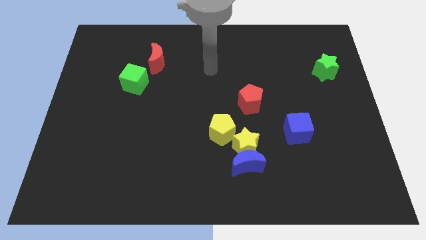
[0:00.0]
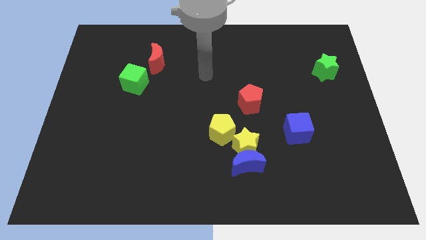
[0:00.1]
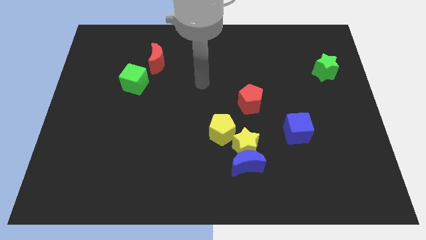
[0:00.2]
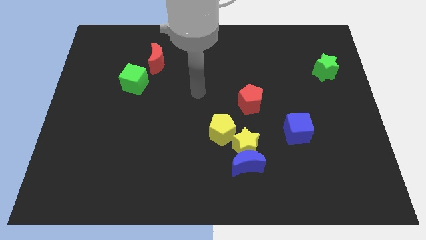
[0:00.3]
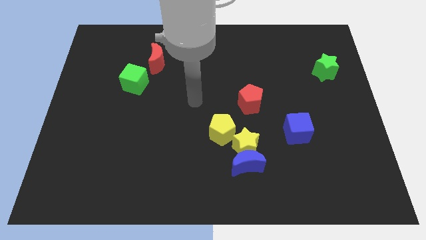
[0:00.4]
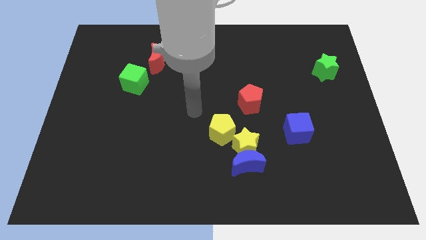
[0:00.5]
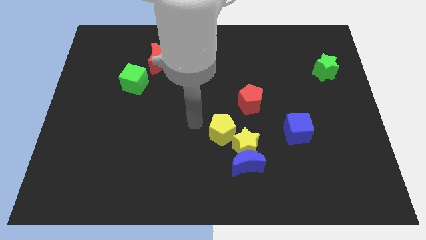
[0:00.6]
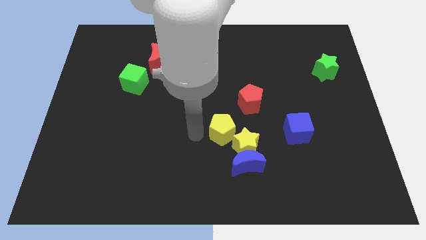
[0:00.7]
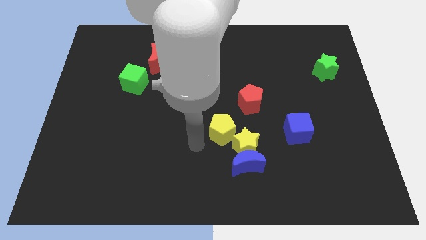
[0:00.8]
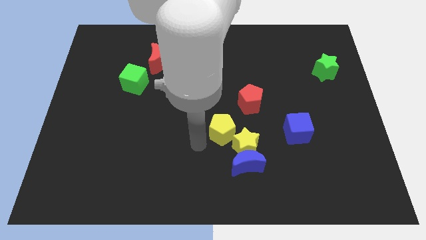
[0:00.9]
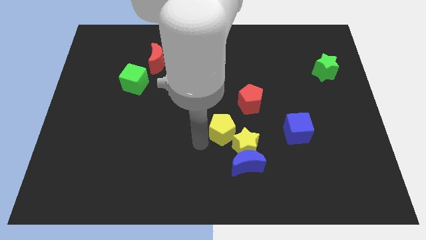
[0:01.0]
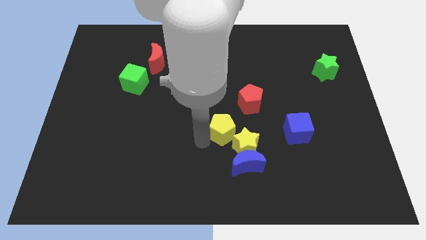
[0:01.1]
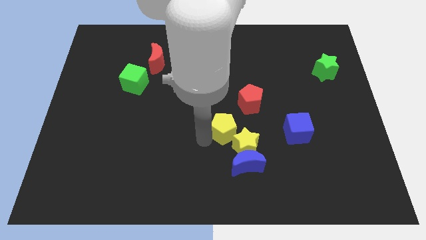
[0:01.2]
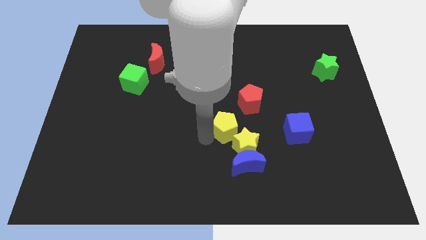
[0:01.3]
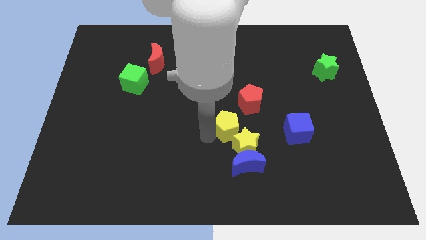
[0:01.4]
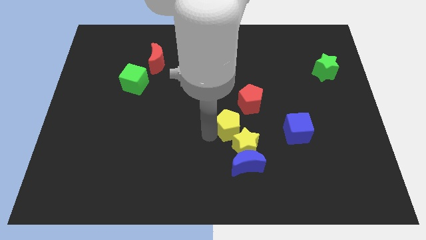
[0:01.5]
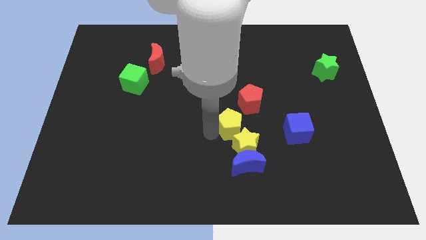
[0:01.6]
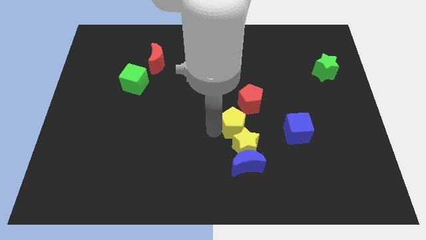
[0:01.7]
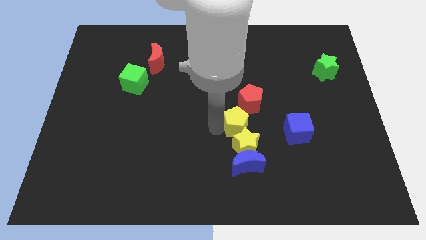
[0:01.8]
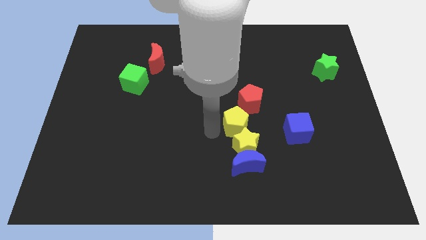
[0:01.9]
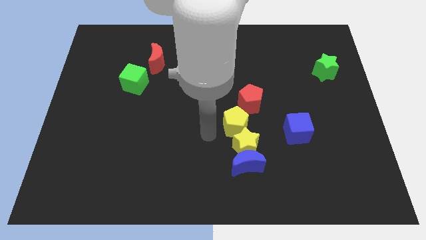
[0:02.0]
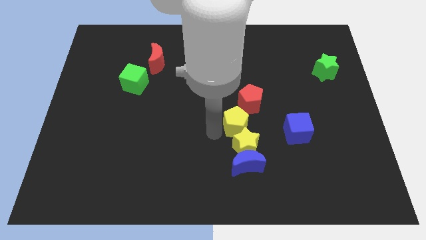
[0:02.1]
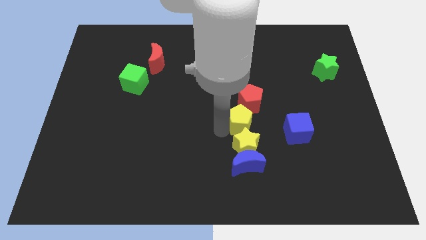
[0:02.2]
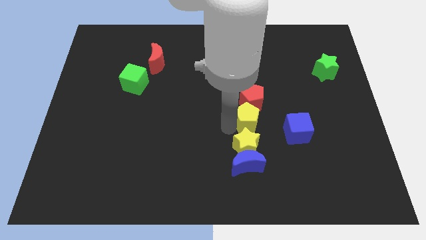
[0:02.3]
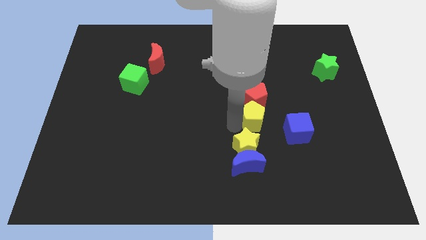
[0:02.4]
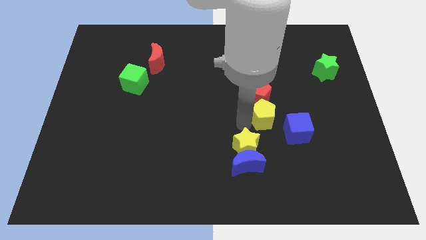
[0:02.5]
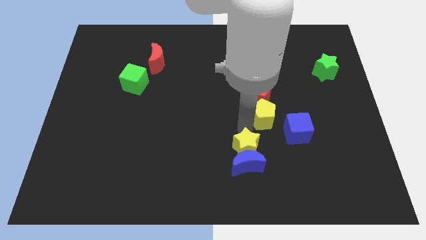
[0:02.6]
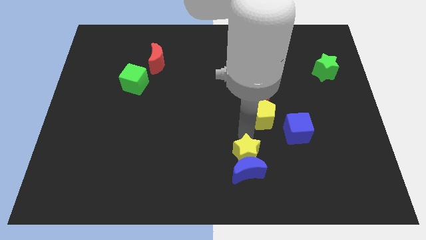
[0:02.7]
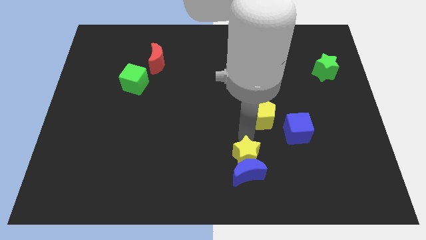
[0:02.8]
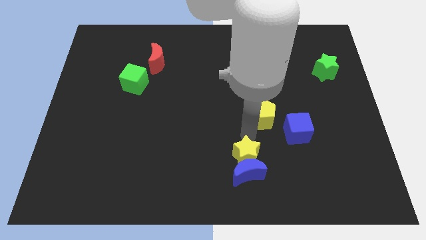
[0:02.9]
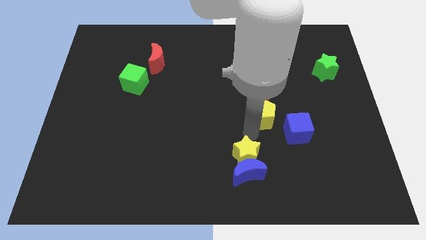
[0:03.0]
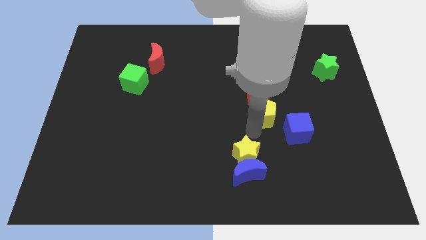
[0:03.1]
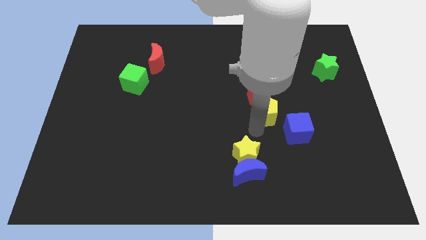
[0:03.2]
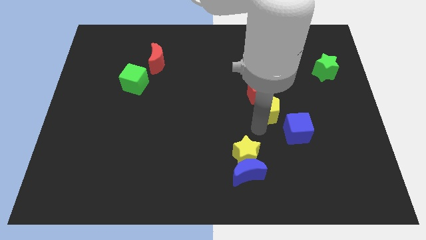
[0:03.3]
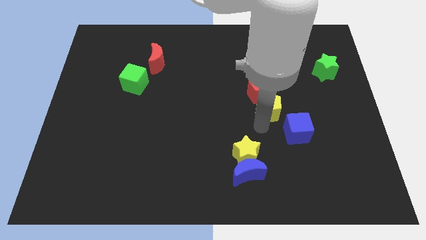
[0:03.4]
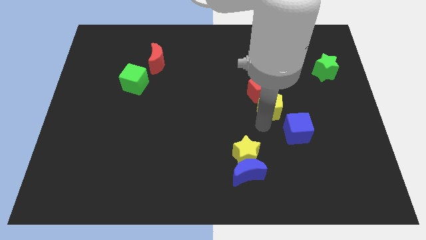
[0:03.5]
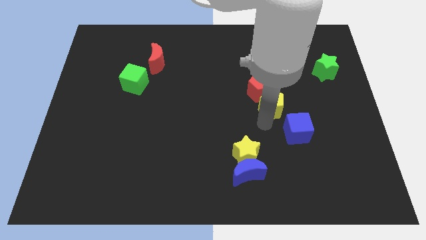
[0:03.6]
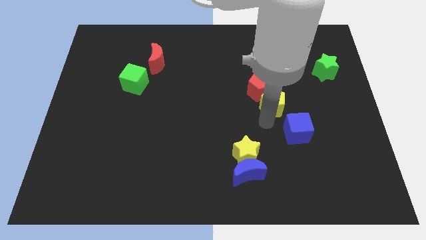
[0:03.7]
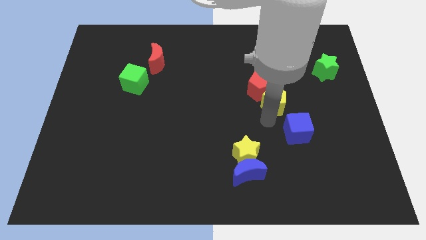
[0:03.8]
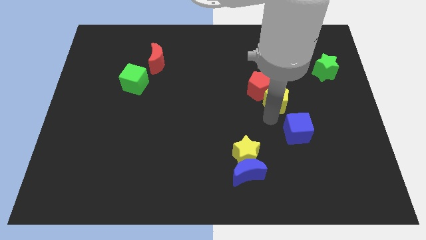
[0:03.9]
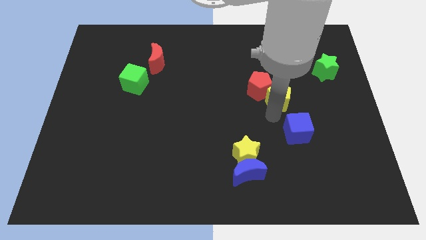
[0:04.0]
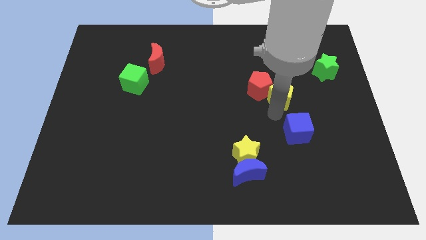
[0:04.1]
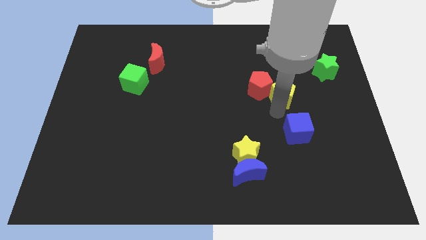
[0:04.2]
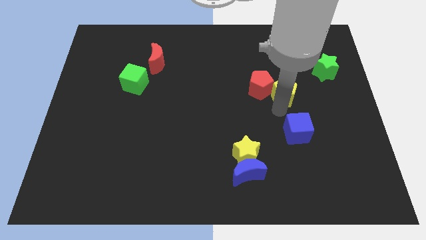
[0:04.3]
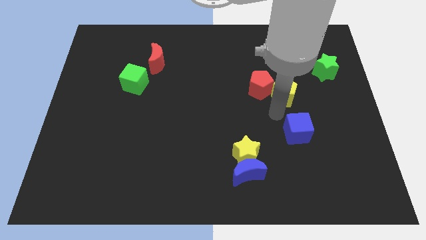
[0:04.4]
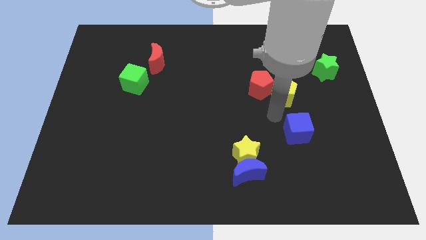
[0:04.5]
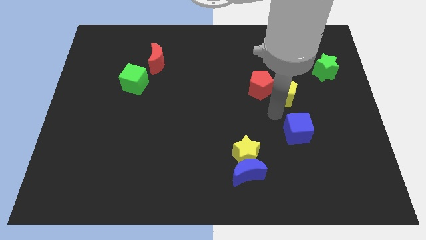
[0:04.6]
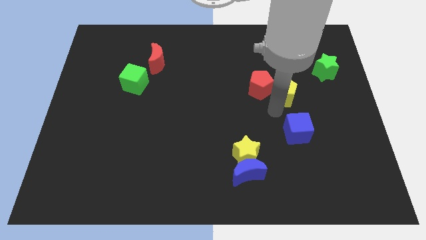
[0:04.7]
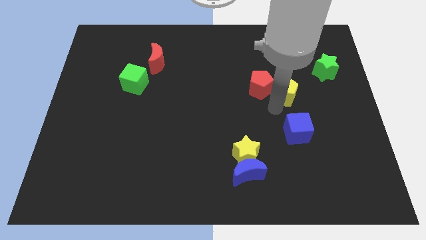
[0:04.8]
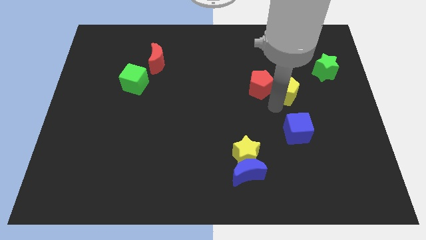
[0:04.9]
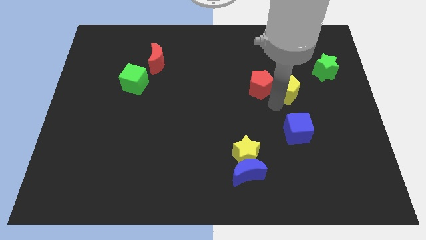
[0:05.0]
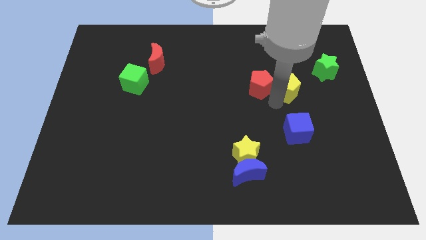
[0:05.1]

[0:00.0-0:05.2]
slide the yellow pentagon up and to the right

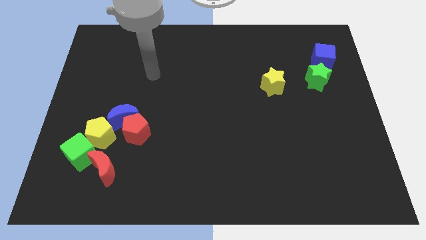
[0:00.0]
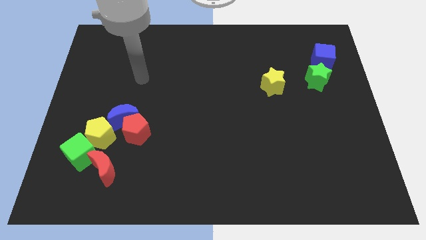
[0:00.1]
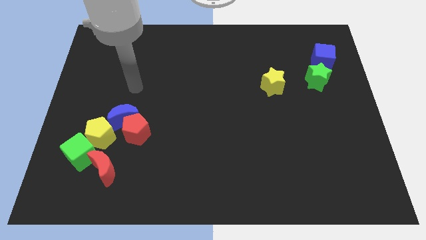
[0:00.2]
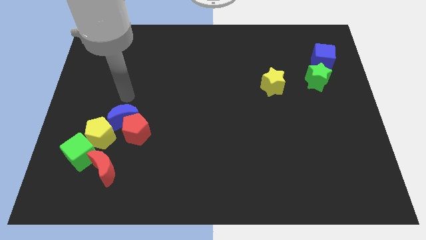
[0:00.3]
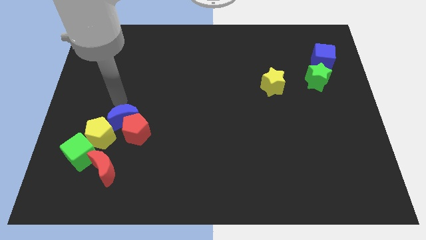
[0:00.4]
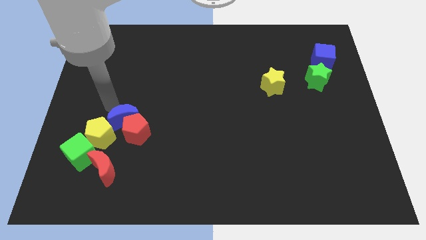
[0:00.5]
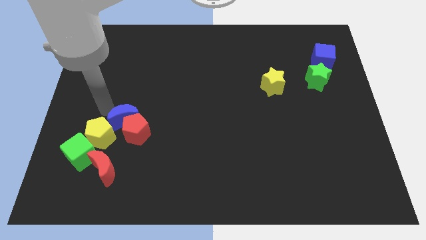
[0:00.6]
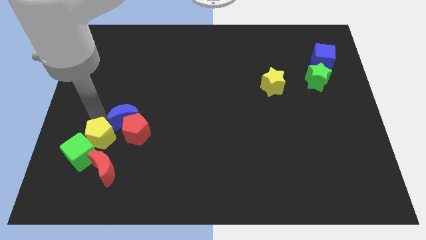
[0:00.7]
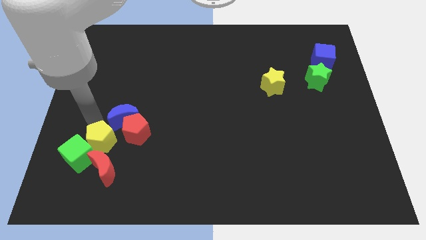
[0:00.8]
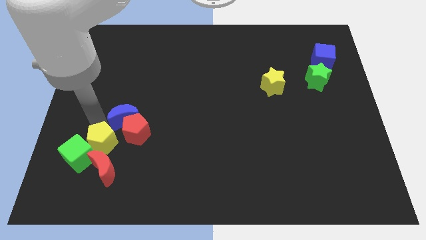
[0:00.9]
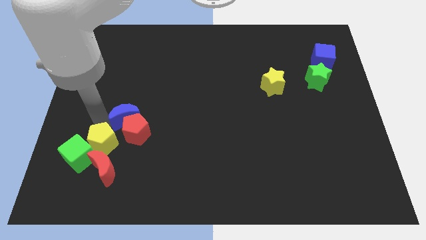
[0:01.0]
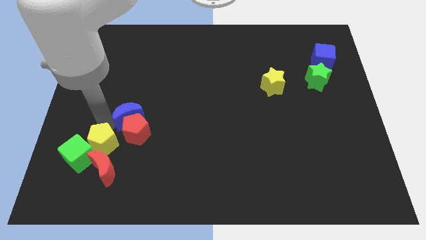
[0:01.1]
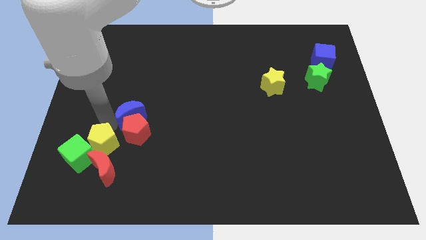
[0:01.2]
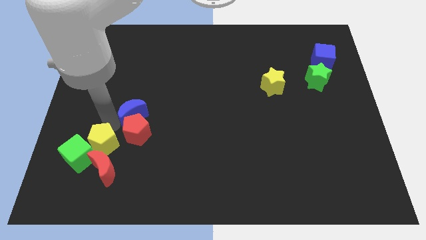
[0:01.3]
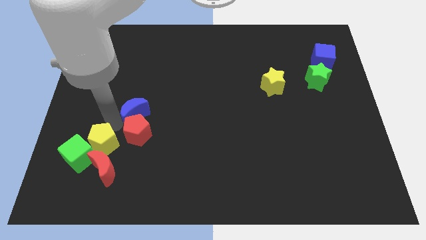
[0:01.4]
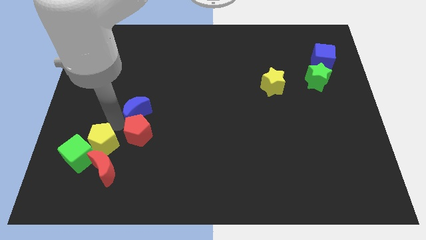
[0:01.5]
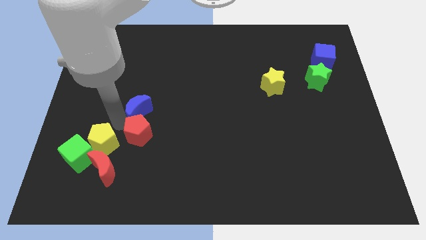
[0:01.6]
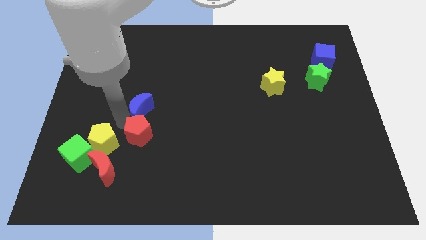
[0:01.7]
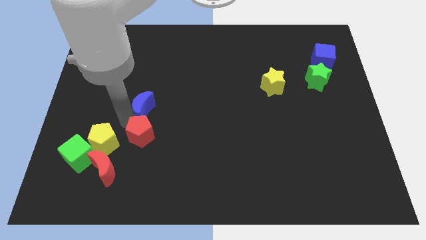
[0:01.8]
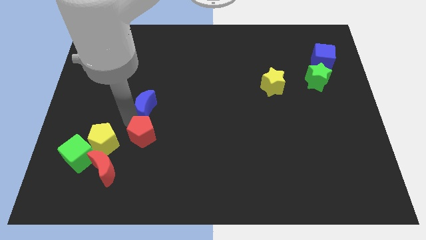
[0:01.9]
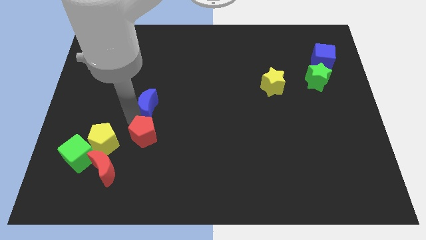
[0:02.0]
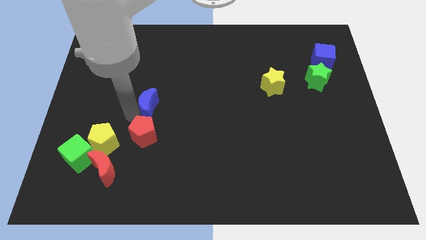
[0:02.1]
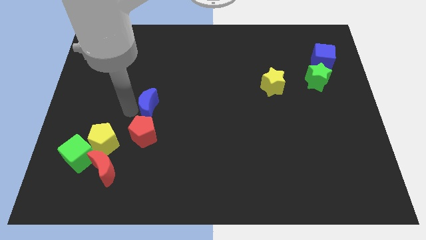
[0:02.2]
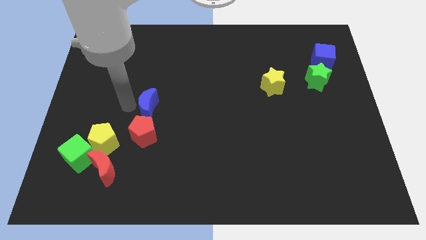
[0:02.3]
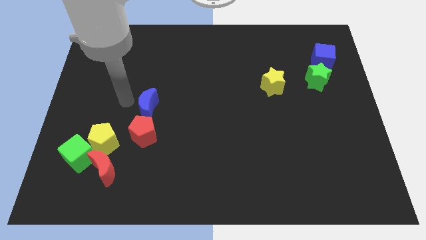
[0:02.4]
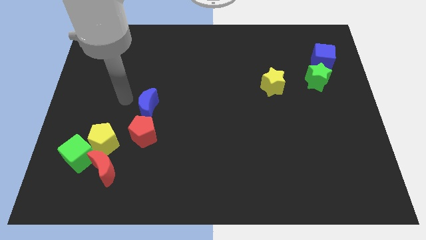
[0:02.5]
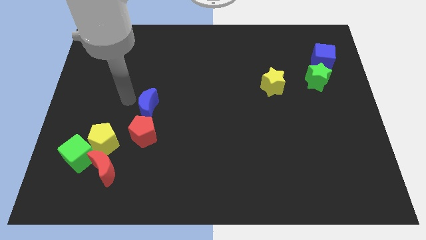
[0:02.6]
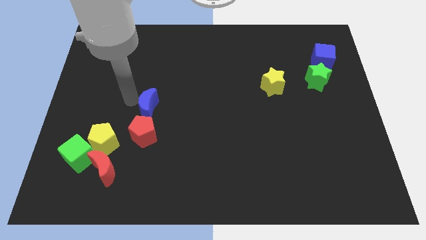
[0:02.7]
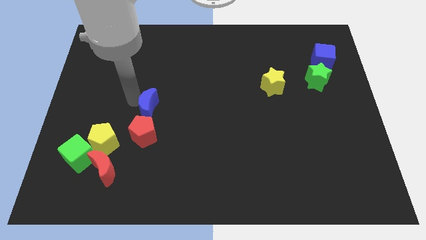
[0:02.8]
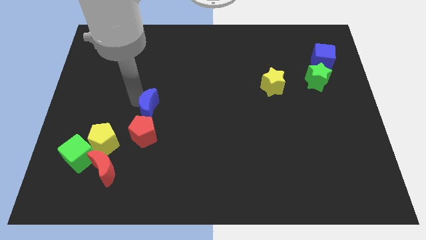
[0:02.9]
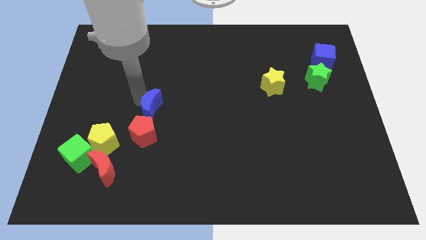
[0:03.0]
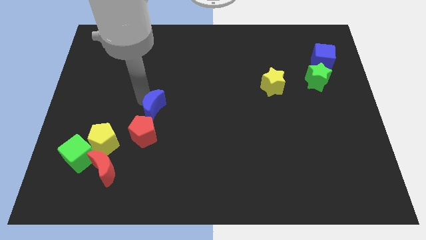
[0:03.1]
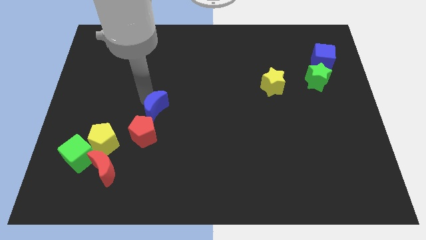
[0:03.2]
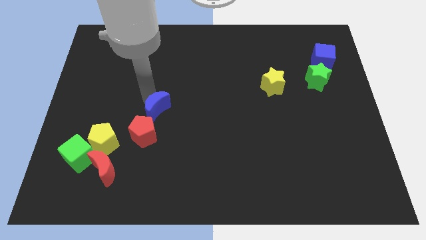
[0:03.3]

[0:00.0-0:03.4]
slide the blue moon a little bit to the right
